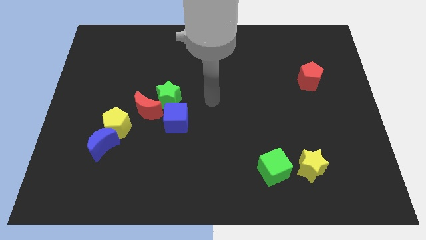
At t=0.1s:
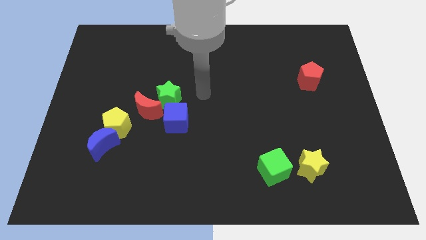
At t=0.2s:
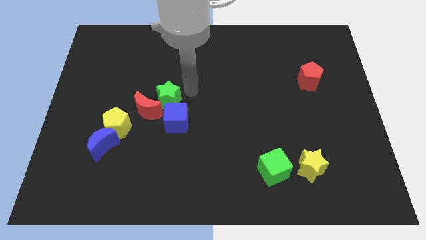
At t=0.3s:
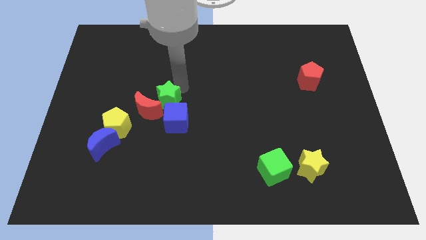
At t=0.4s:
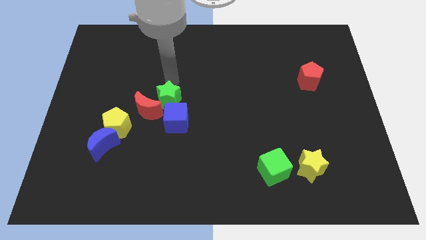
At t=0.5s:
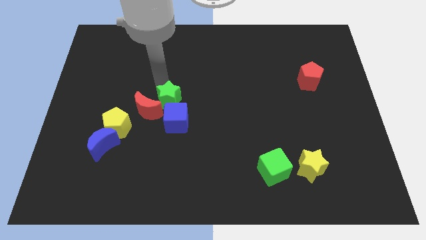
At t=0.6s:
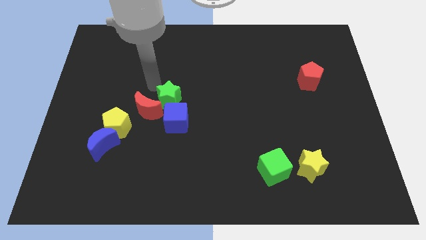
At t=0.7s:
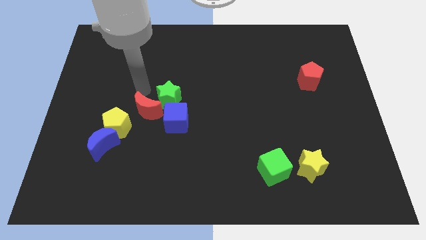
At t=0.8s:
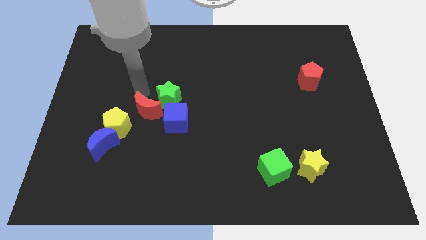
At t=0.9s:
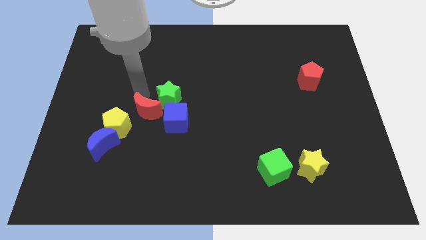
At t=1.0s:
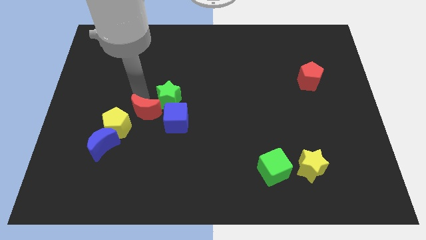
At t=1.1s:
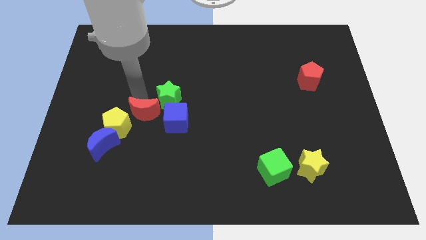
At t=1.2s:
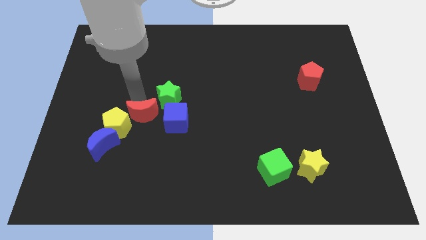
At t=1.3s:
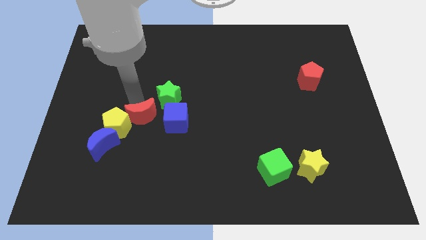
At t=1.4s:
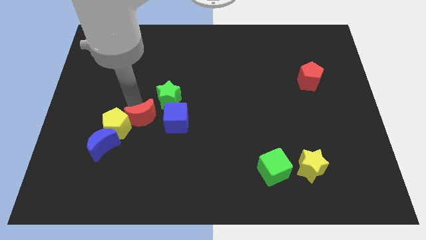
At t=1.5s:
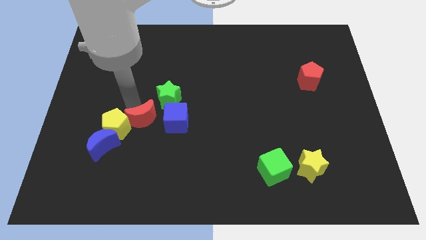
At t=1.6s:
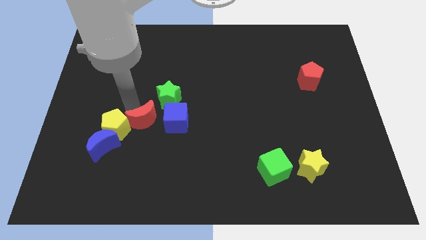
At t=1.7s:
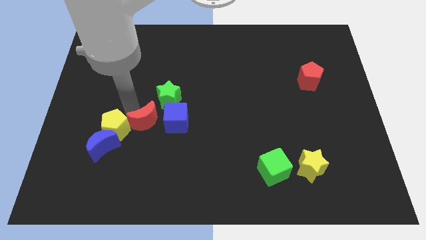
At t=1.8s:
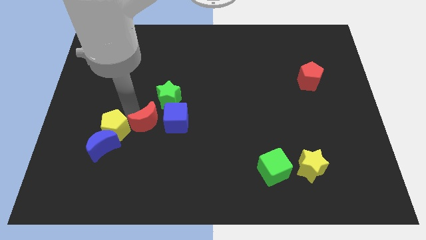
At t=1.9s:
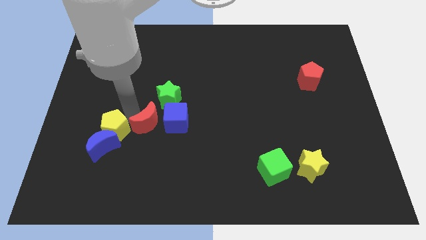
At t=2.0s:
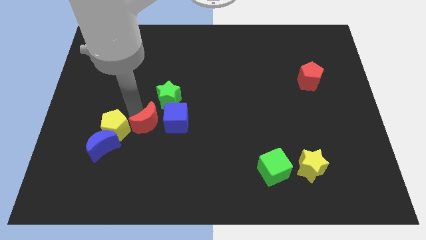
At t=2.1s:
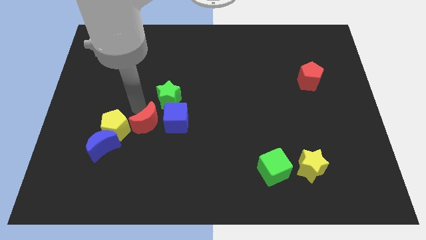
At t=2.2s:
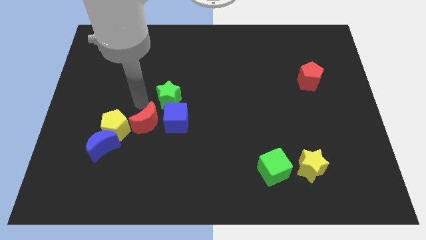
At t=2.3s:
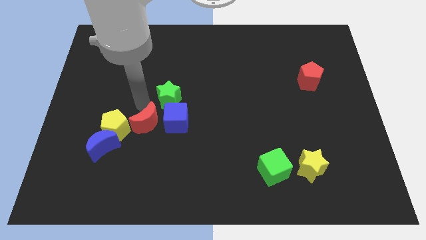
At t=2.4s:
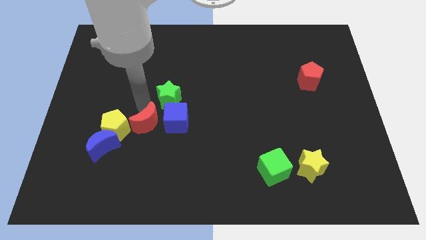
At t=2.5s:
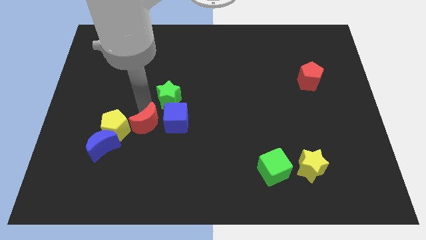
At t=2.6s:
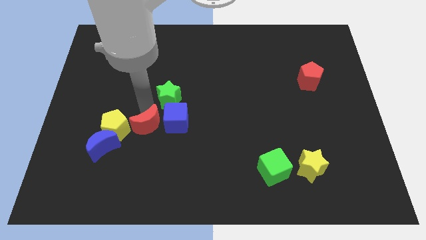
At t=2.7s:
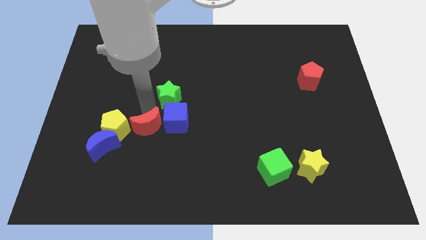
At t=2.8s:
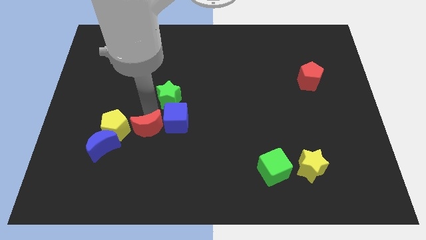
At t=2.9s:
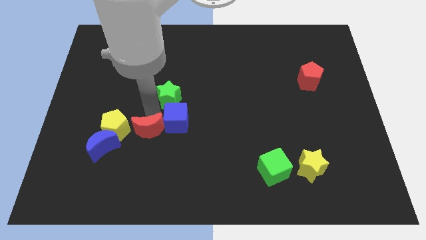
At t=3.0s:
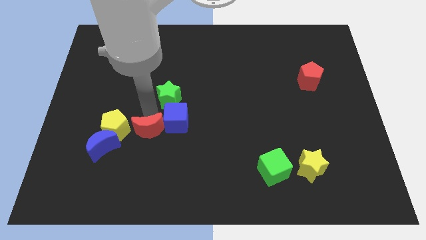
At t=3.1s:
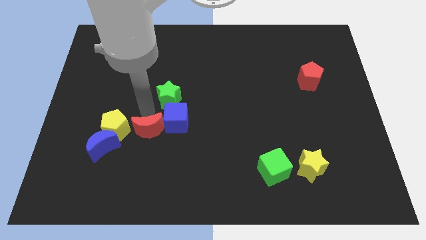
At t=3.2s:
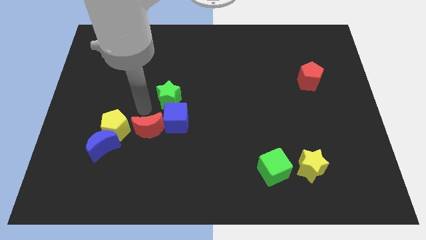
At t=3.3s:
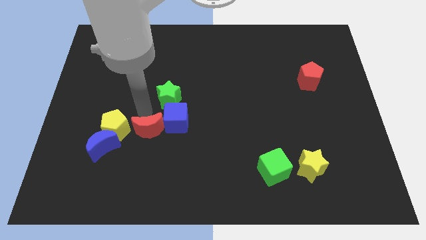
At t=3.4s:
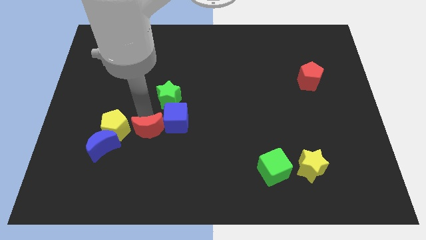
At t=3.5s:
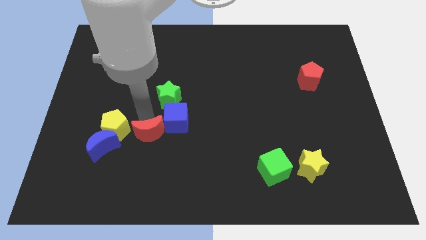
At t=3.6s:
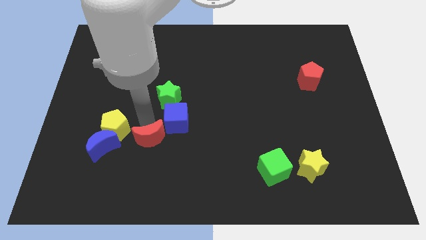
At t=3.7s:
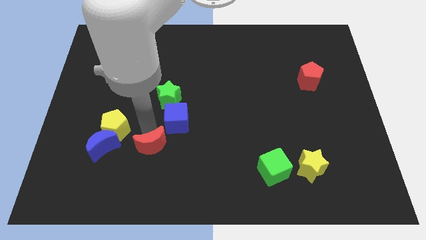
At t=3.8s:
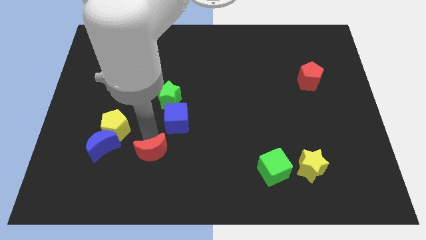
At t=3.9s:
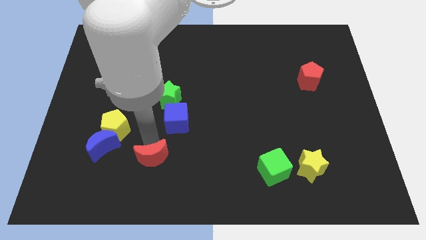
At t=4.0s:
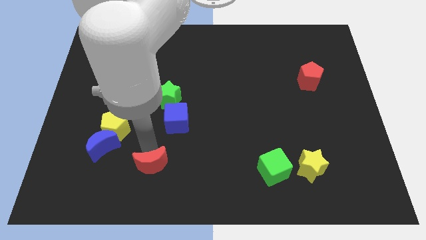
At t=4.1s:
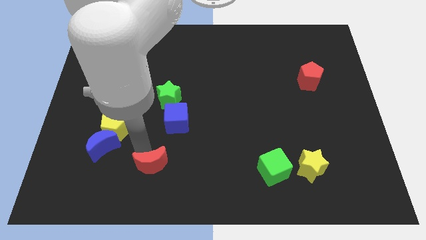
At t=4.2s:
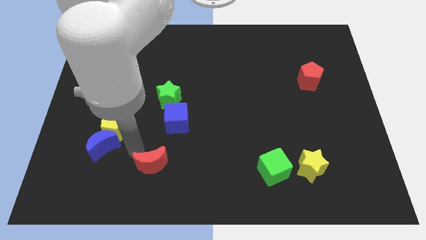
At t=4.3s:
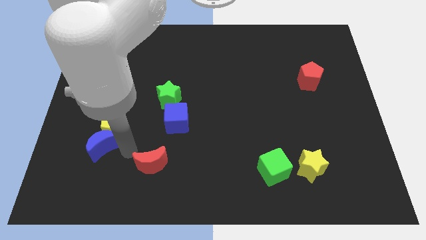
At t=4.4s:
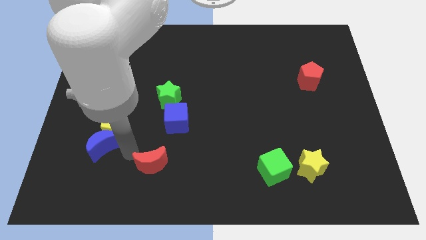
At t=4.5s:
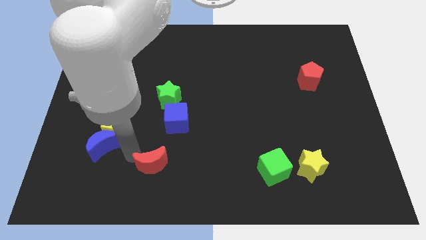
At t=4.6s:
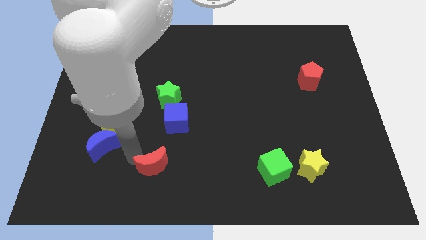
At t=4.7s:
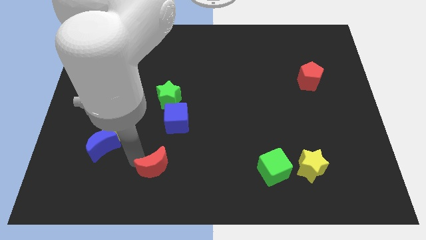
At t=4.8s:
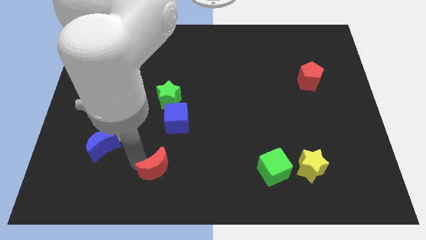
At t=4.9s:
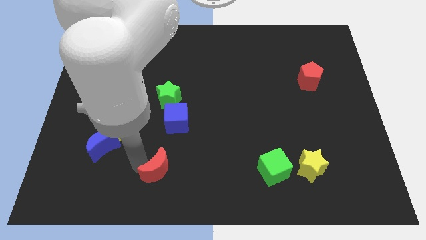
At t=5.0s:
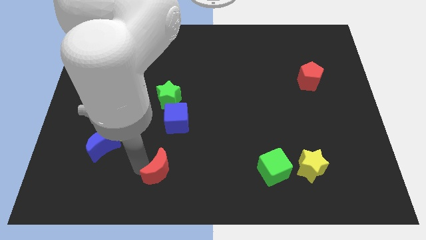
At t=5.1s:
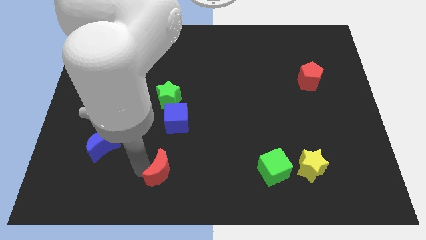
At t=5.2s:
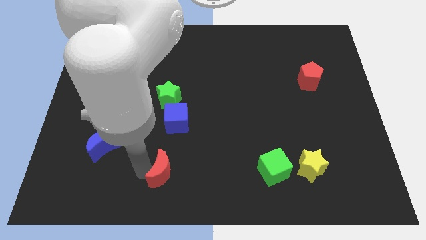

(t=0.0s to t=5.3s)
move the red moon to the bottom side

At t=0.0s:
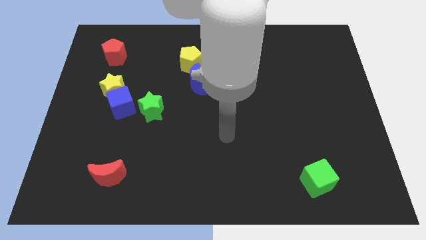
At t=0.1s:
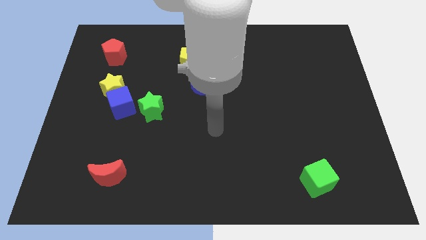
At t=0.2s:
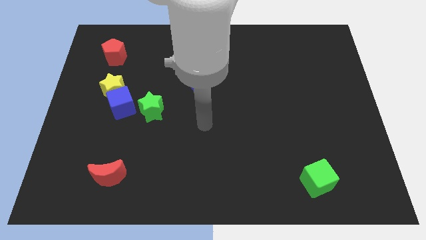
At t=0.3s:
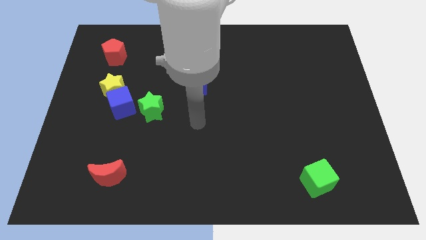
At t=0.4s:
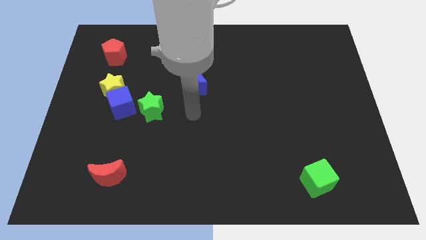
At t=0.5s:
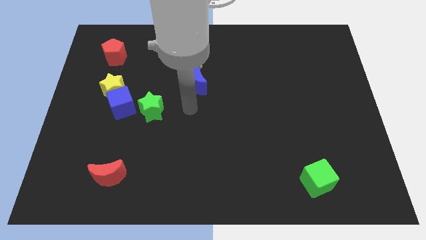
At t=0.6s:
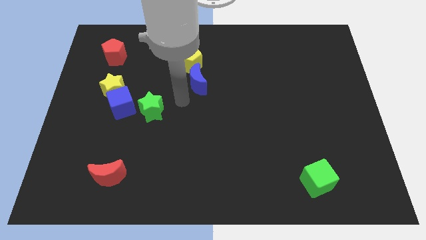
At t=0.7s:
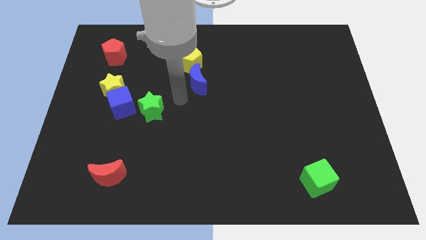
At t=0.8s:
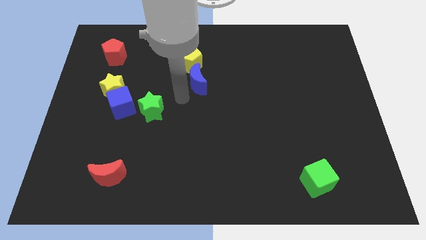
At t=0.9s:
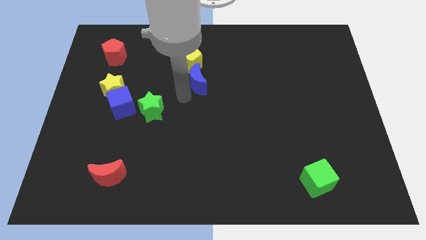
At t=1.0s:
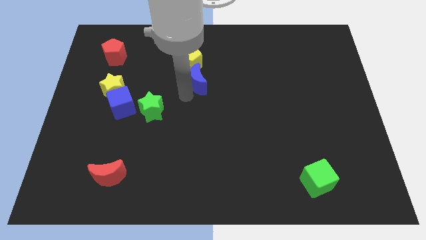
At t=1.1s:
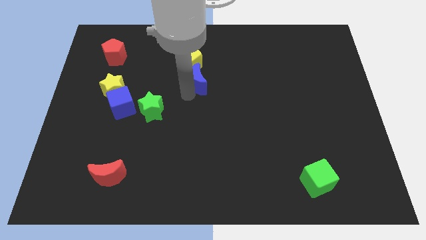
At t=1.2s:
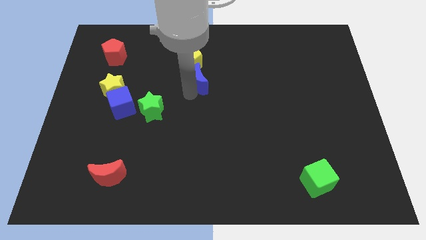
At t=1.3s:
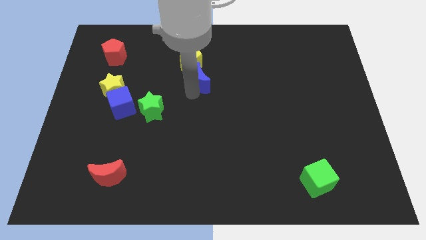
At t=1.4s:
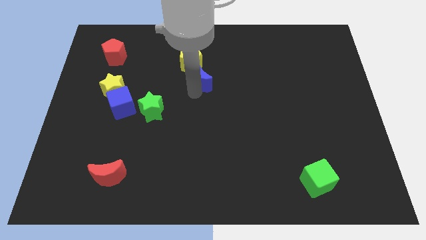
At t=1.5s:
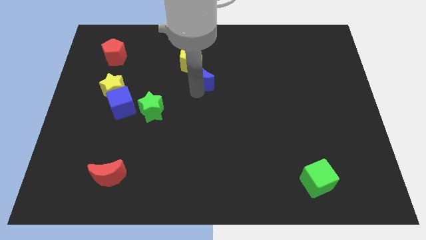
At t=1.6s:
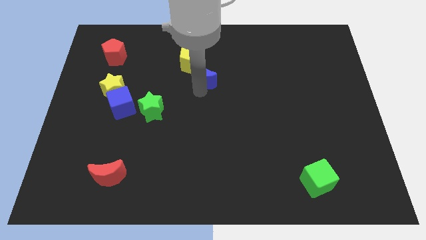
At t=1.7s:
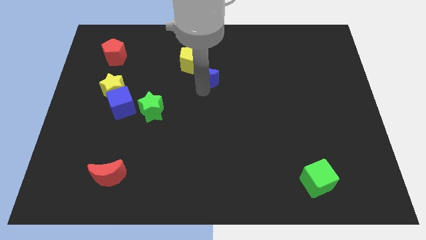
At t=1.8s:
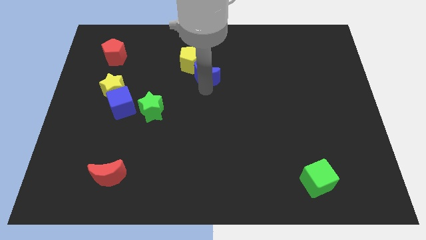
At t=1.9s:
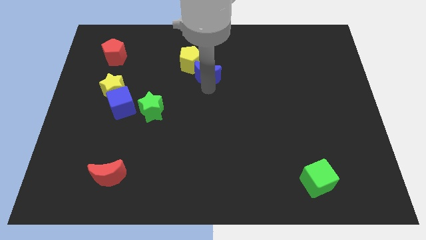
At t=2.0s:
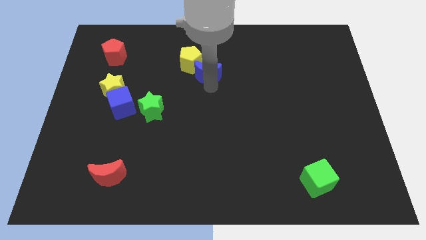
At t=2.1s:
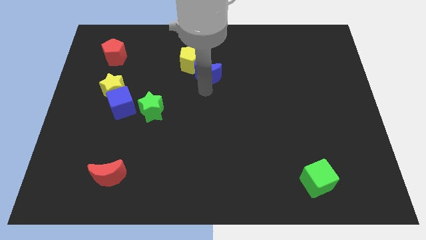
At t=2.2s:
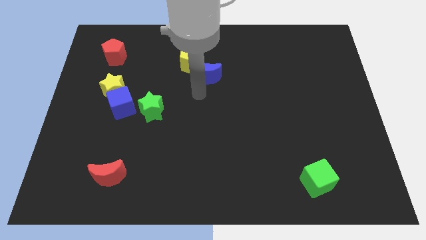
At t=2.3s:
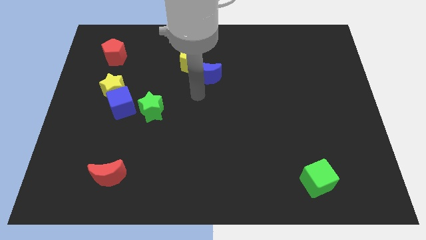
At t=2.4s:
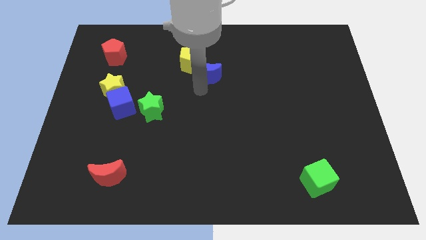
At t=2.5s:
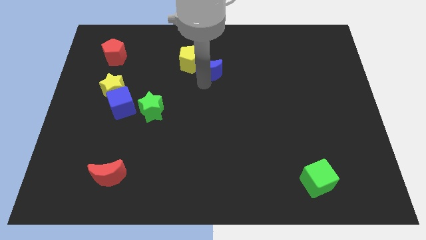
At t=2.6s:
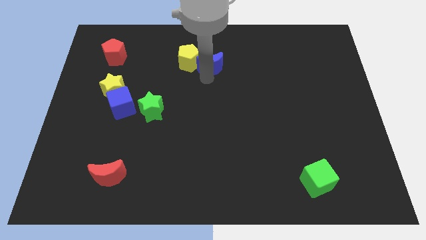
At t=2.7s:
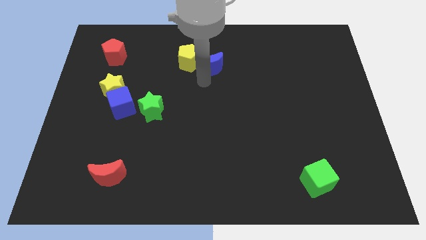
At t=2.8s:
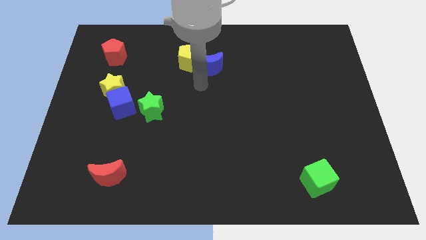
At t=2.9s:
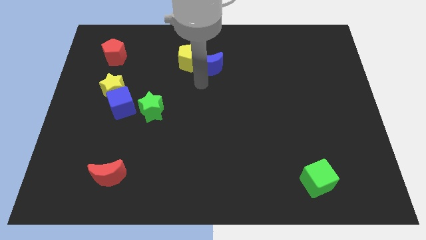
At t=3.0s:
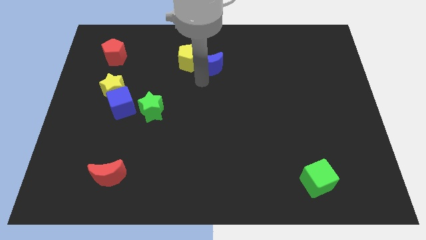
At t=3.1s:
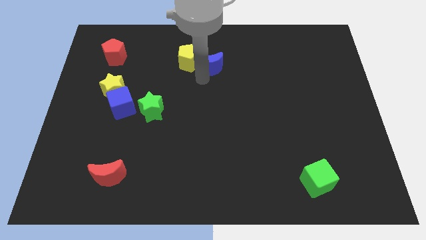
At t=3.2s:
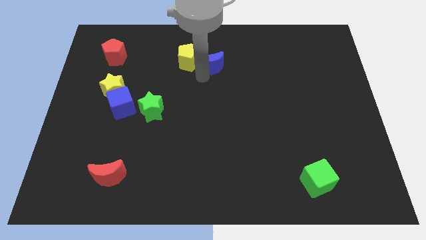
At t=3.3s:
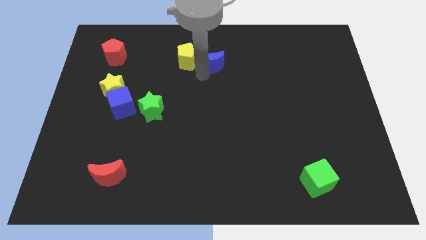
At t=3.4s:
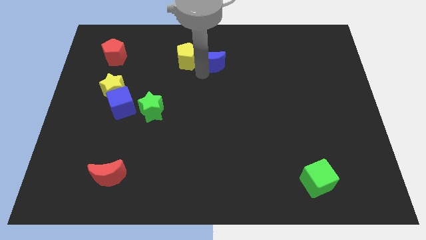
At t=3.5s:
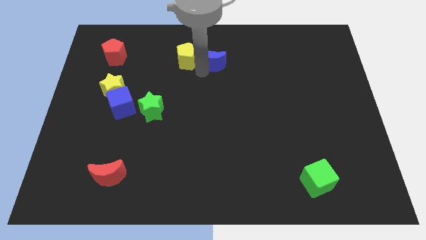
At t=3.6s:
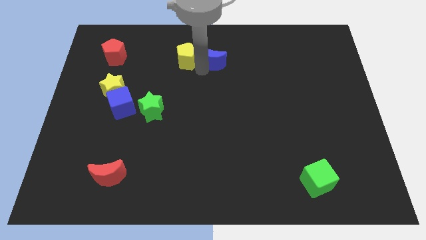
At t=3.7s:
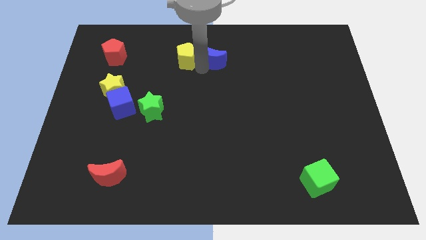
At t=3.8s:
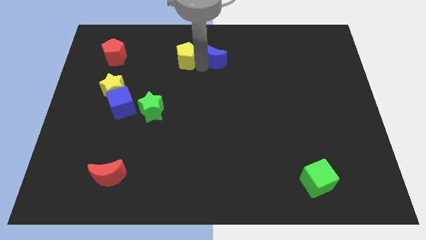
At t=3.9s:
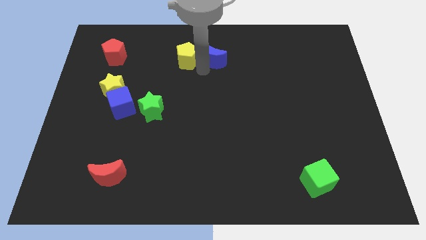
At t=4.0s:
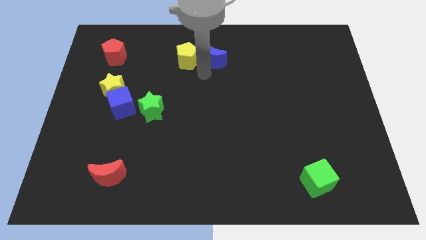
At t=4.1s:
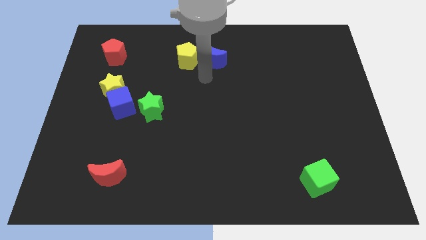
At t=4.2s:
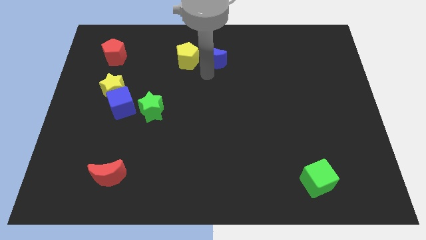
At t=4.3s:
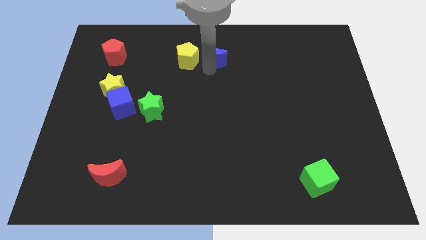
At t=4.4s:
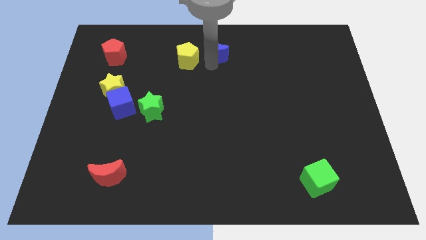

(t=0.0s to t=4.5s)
put the blue moon to the top side
